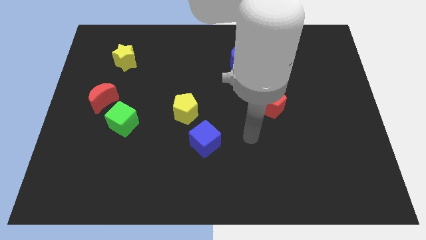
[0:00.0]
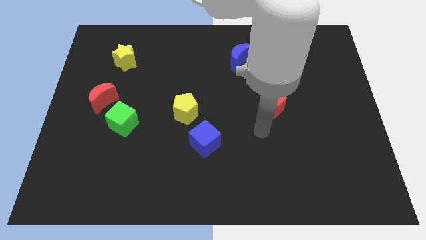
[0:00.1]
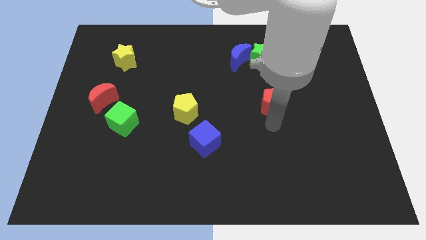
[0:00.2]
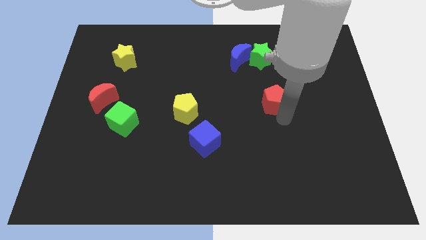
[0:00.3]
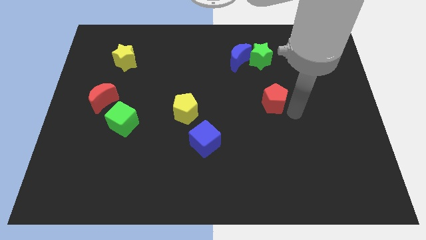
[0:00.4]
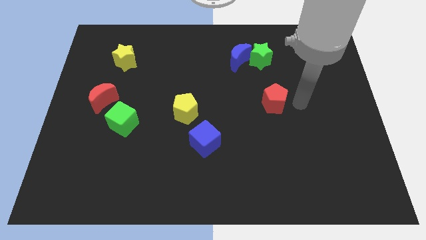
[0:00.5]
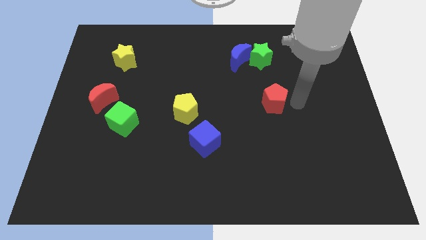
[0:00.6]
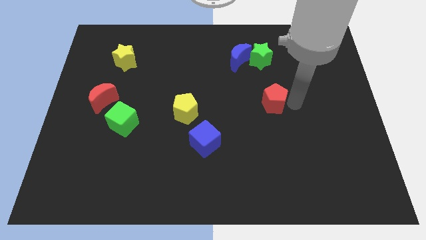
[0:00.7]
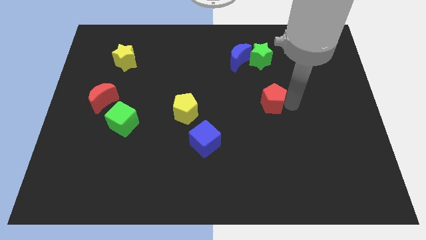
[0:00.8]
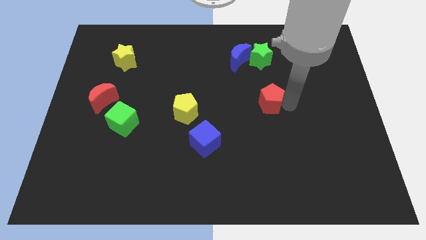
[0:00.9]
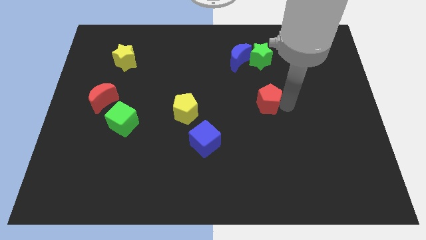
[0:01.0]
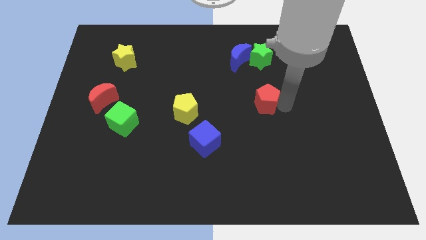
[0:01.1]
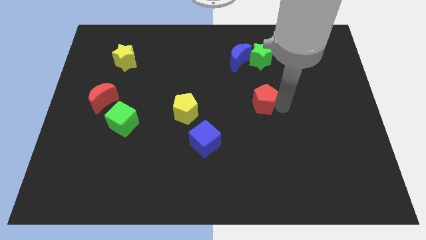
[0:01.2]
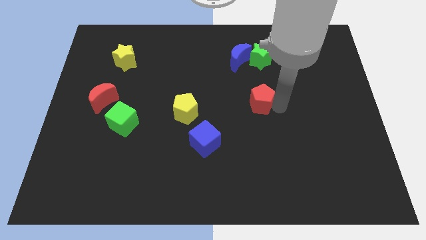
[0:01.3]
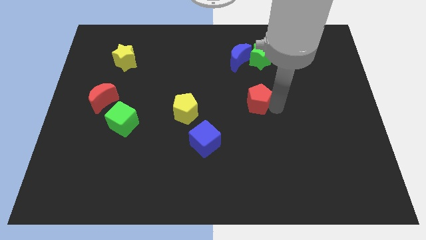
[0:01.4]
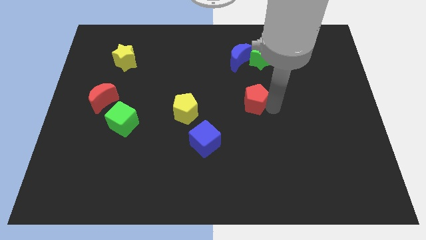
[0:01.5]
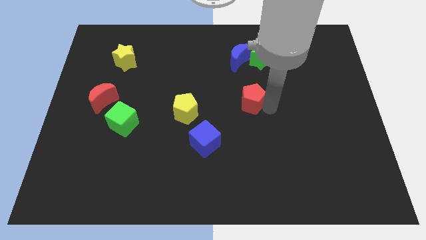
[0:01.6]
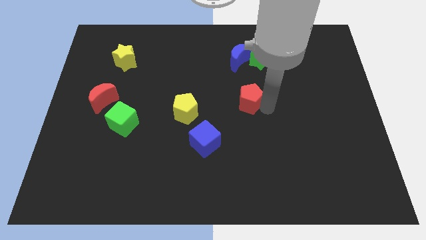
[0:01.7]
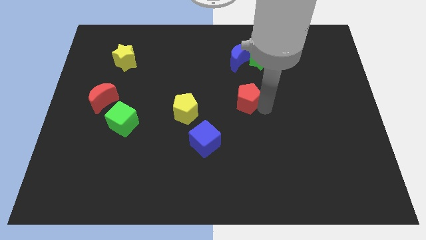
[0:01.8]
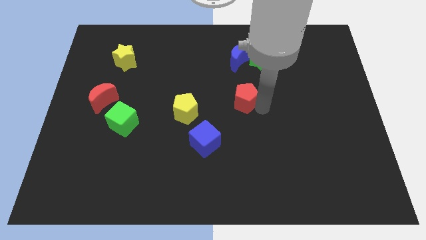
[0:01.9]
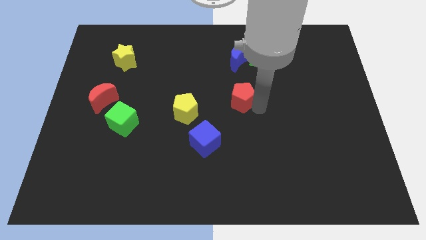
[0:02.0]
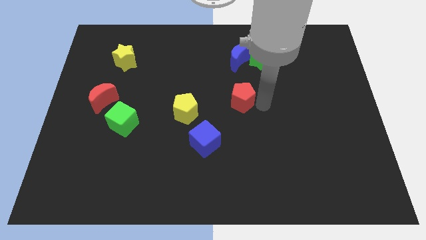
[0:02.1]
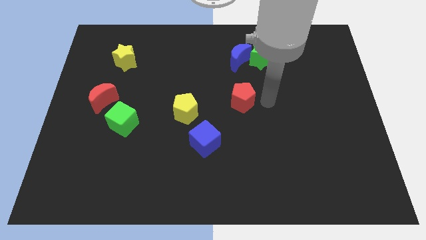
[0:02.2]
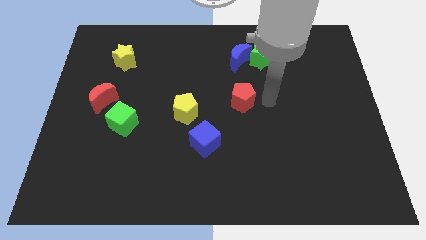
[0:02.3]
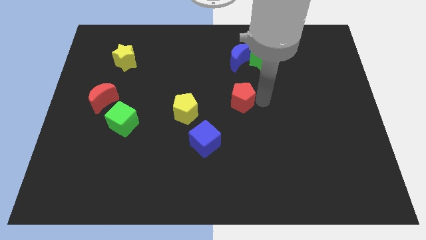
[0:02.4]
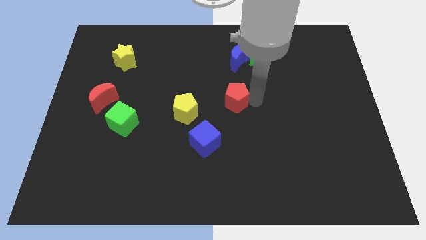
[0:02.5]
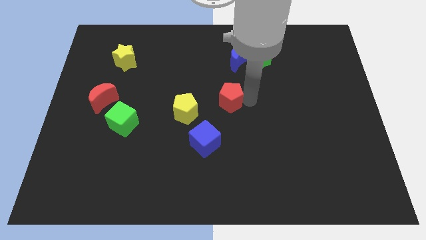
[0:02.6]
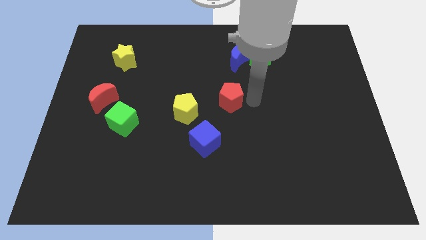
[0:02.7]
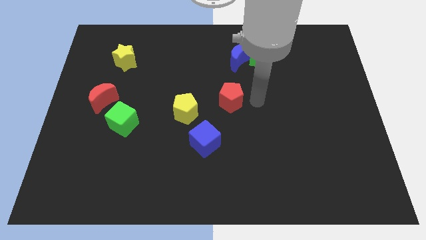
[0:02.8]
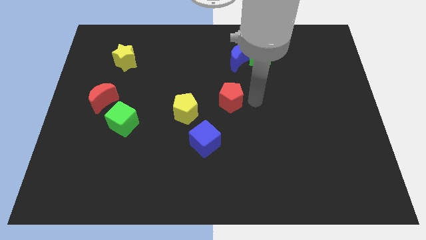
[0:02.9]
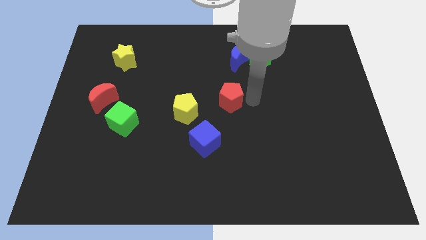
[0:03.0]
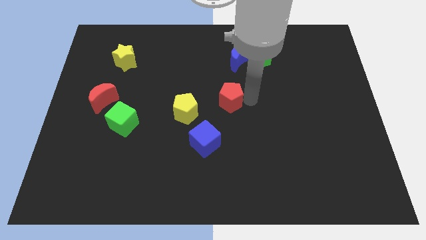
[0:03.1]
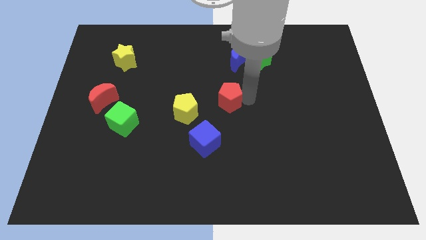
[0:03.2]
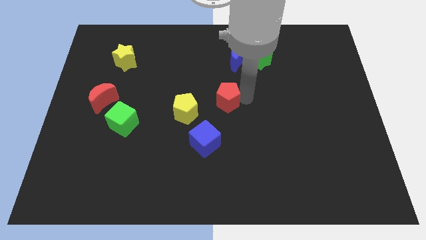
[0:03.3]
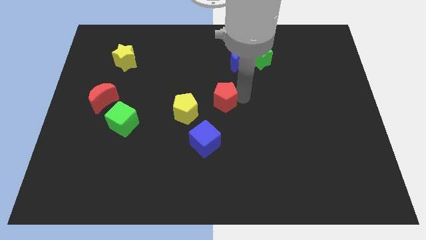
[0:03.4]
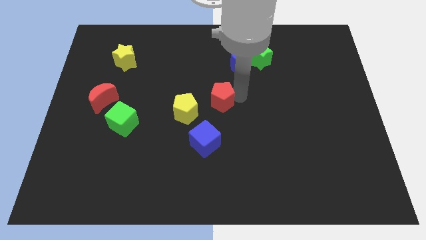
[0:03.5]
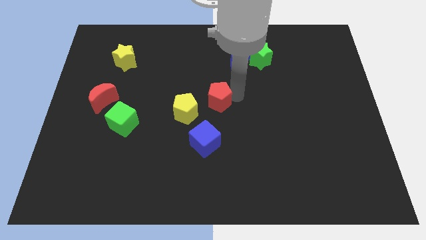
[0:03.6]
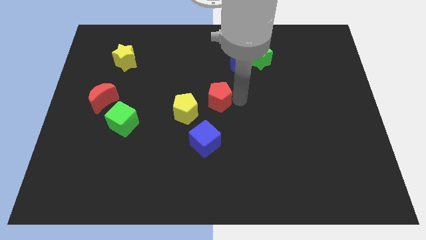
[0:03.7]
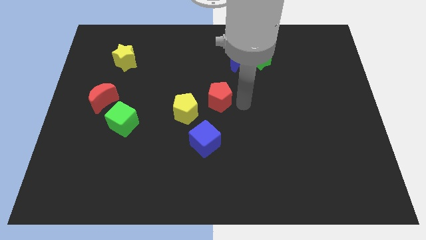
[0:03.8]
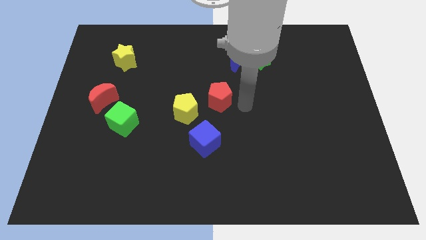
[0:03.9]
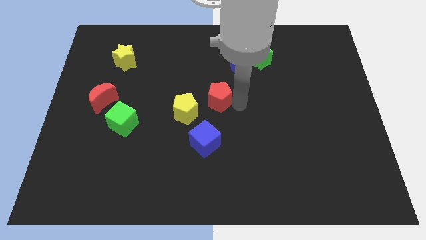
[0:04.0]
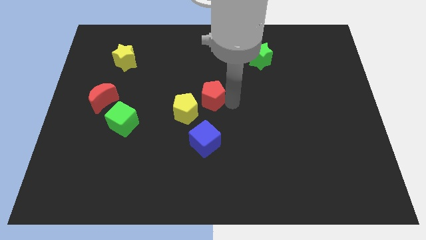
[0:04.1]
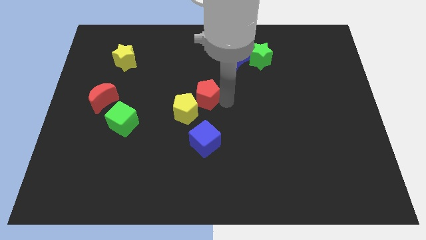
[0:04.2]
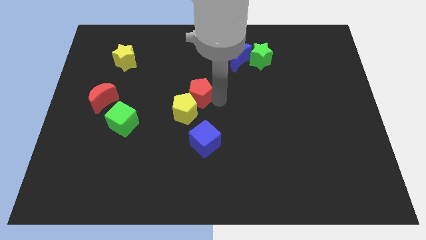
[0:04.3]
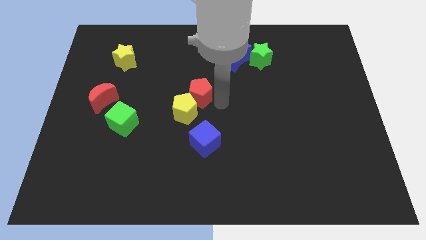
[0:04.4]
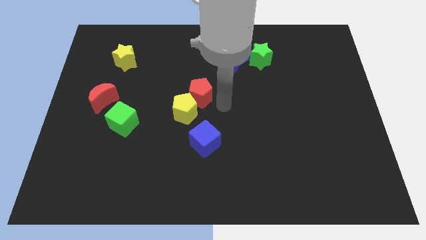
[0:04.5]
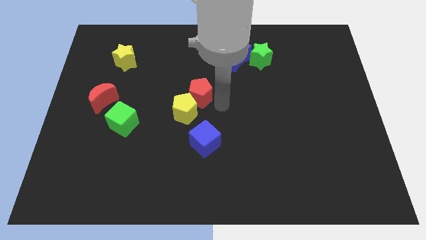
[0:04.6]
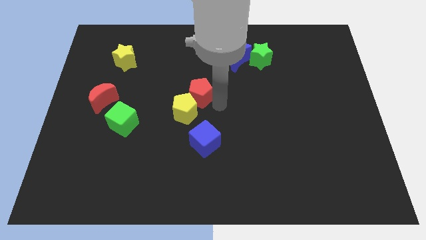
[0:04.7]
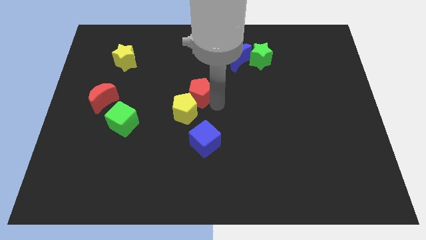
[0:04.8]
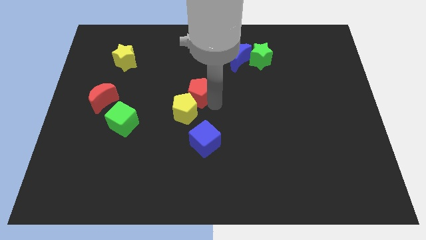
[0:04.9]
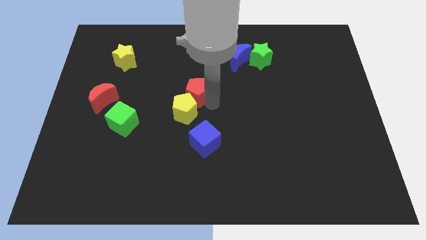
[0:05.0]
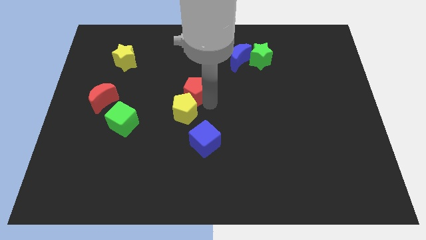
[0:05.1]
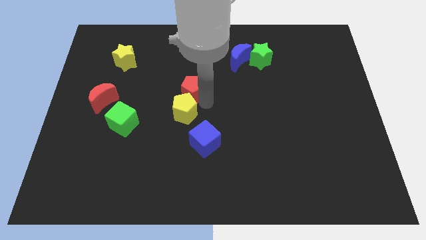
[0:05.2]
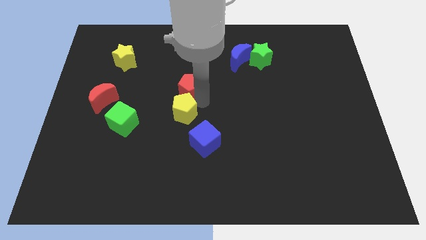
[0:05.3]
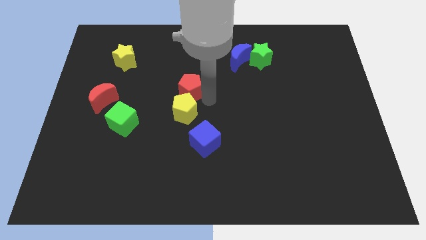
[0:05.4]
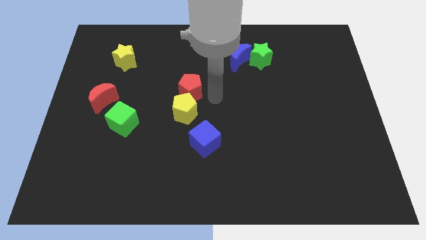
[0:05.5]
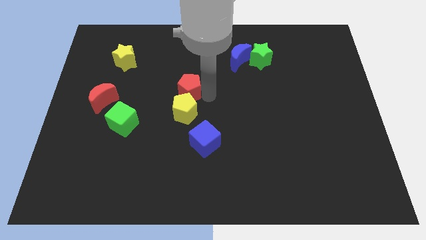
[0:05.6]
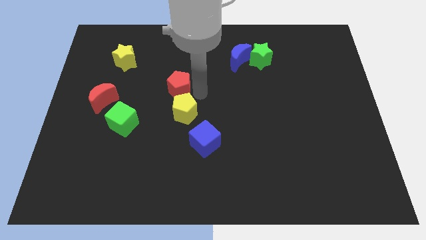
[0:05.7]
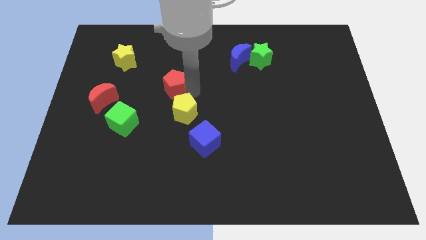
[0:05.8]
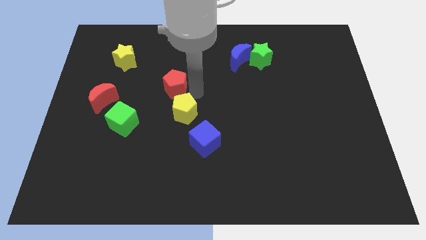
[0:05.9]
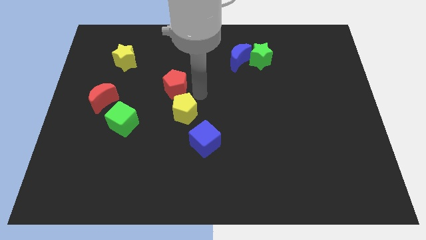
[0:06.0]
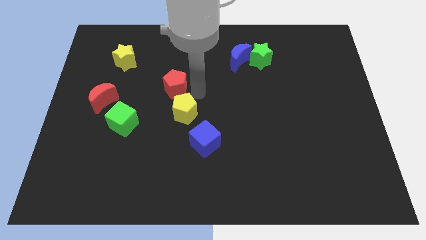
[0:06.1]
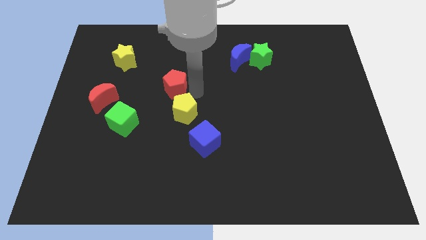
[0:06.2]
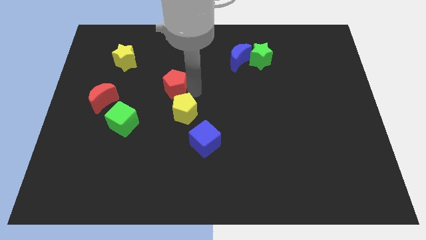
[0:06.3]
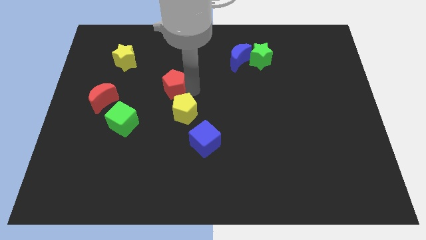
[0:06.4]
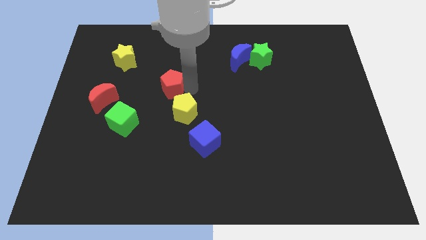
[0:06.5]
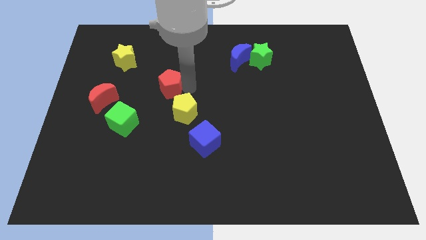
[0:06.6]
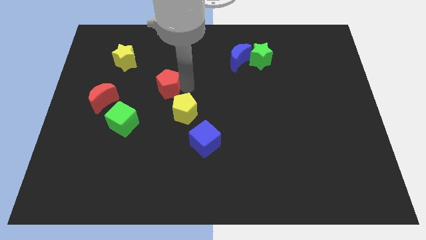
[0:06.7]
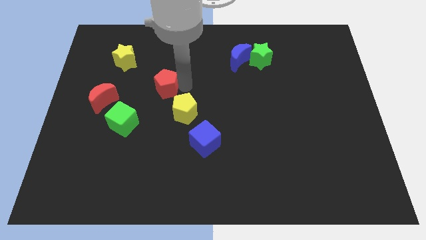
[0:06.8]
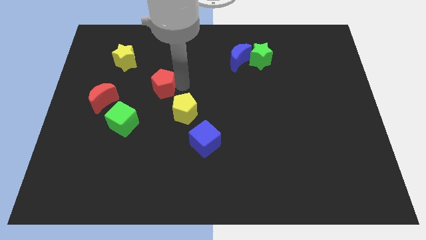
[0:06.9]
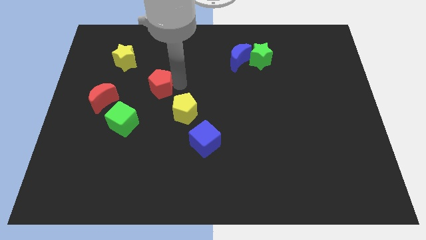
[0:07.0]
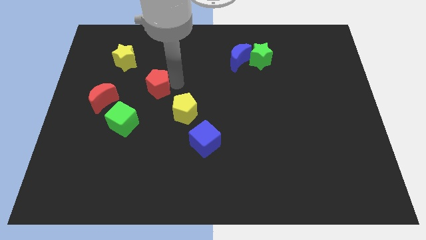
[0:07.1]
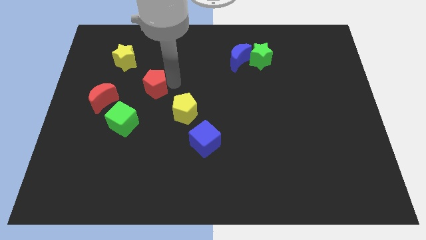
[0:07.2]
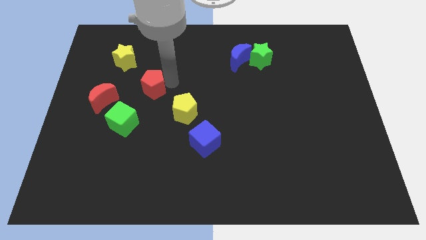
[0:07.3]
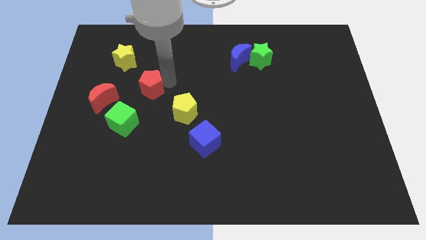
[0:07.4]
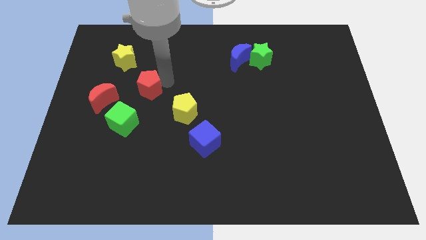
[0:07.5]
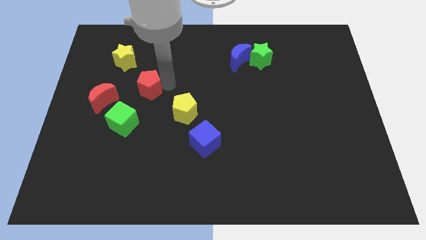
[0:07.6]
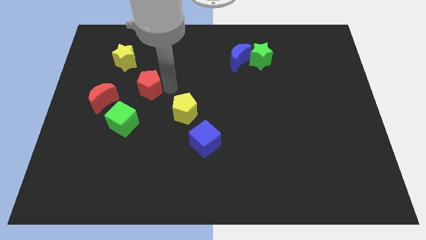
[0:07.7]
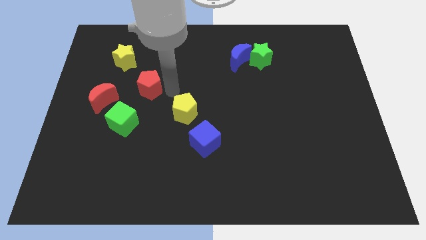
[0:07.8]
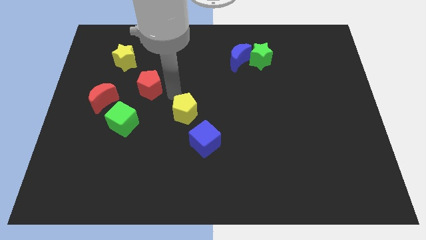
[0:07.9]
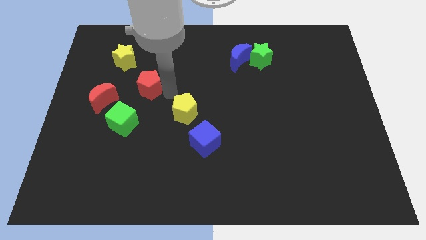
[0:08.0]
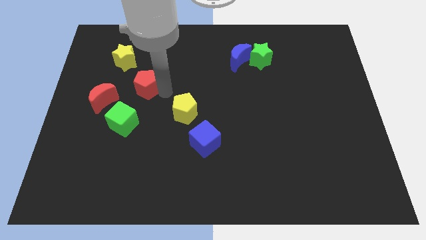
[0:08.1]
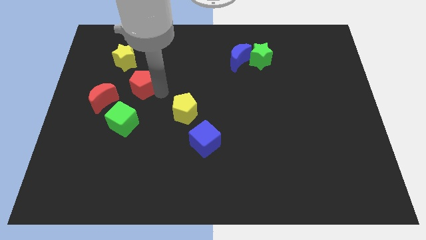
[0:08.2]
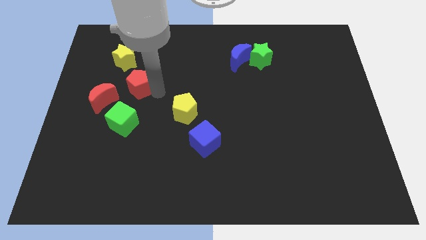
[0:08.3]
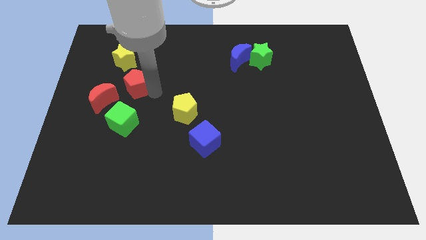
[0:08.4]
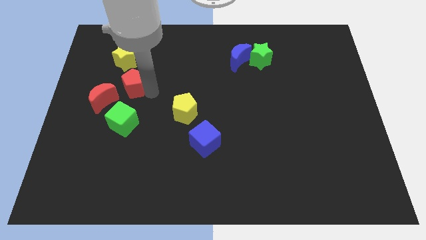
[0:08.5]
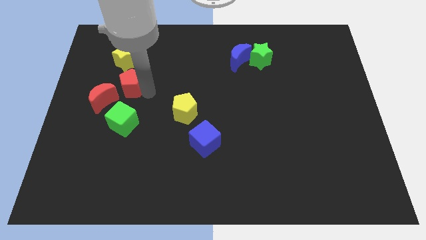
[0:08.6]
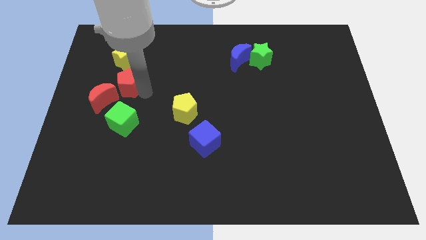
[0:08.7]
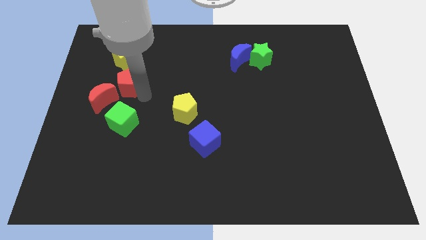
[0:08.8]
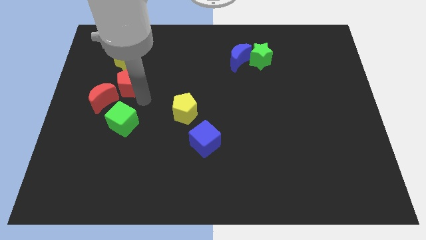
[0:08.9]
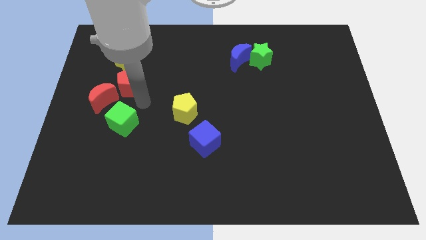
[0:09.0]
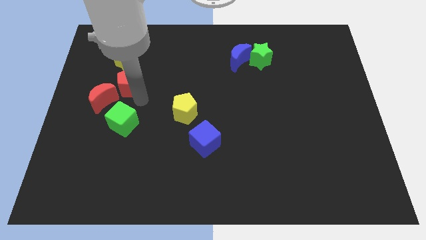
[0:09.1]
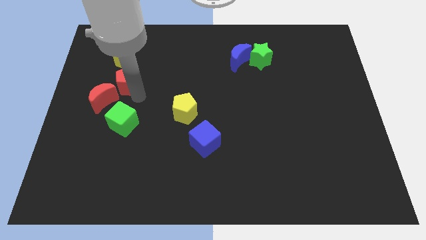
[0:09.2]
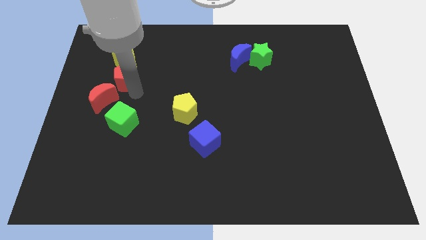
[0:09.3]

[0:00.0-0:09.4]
push the red pentagon to the top of the red moon
